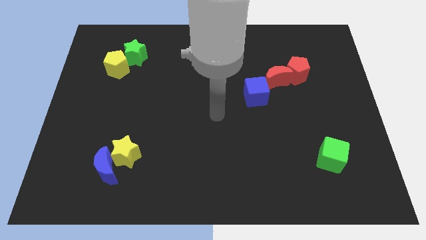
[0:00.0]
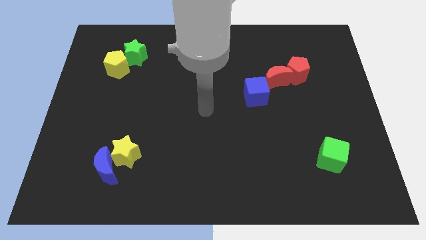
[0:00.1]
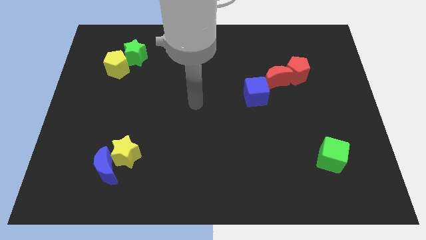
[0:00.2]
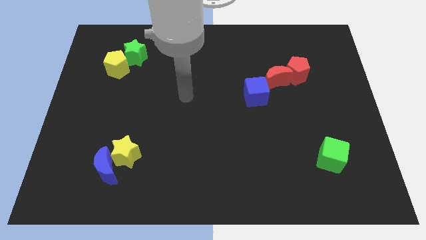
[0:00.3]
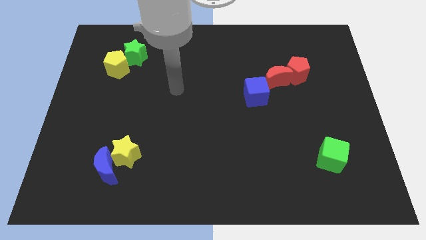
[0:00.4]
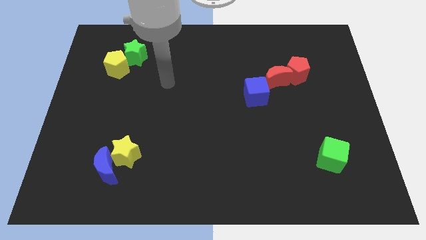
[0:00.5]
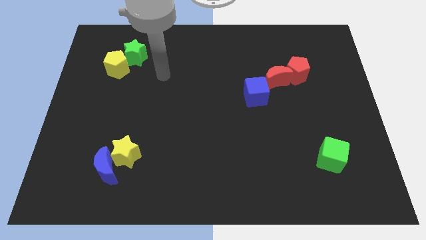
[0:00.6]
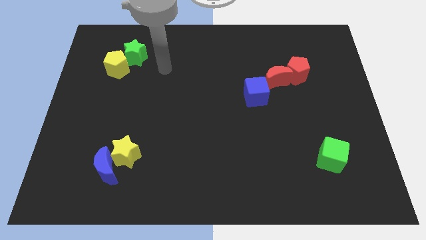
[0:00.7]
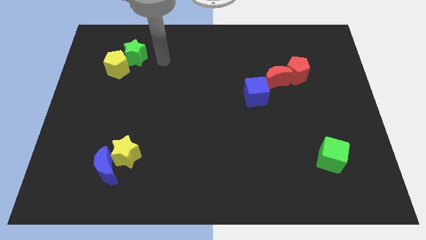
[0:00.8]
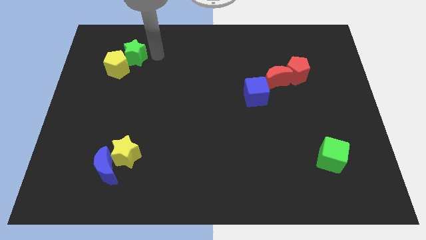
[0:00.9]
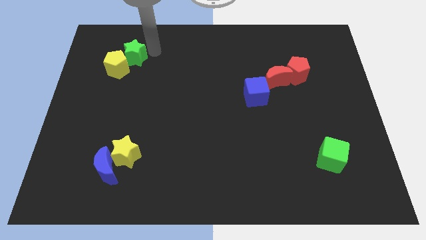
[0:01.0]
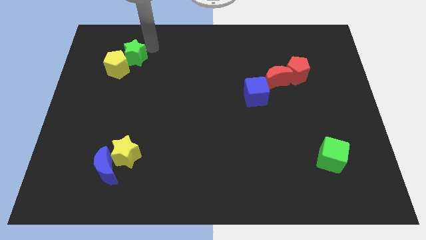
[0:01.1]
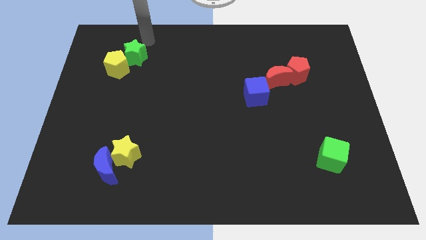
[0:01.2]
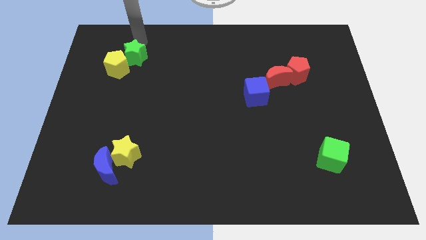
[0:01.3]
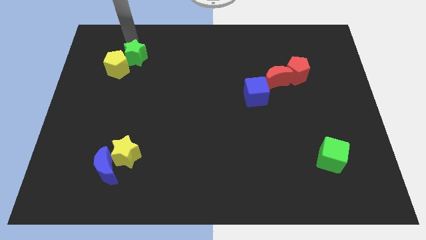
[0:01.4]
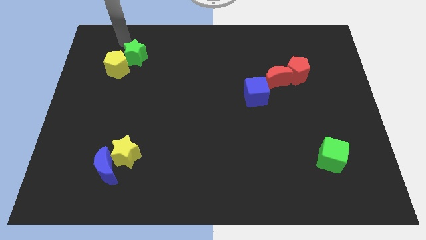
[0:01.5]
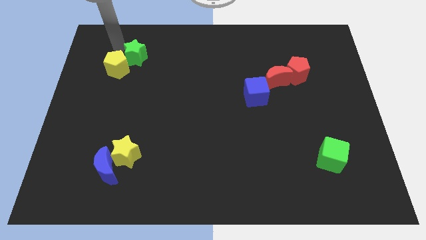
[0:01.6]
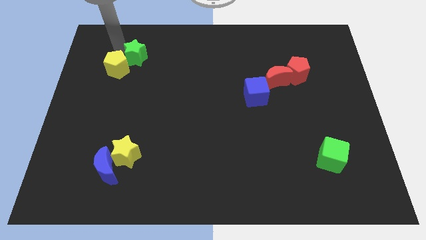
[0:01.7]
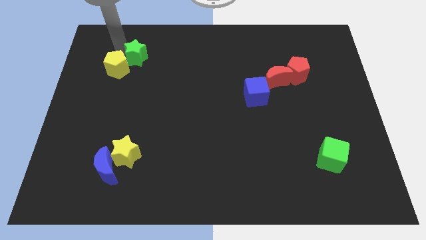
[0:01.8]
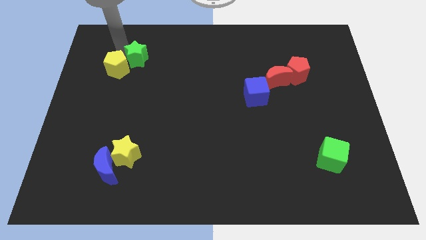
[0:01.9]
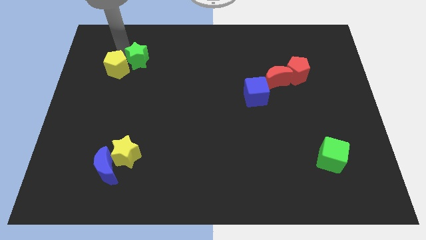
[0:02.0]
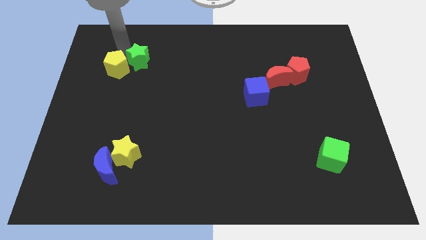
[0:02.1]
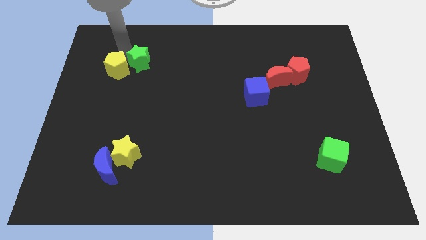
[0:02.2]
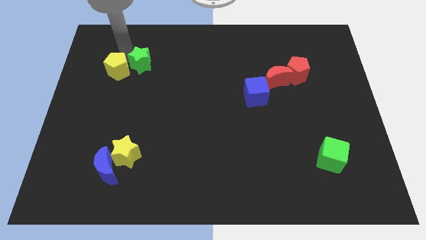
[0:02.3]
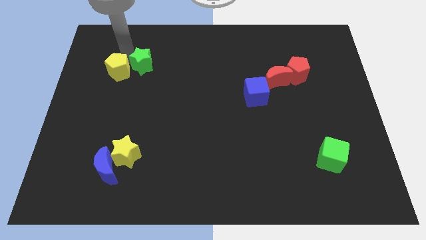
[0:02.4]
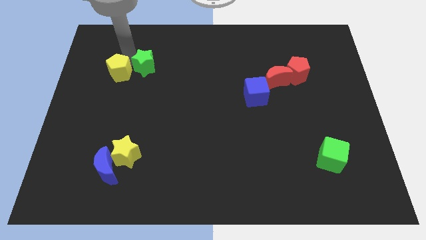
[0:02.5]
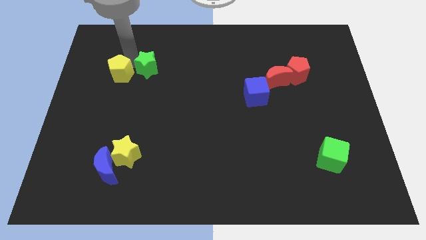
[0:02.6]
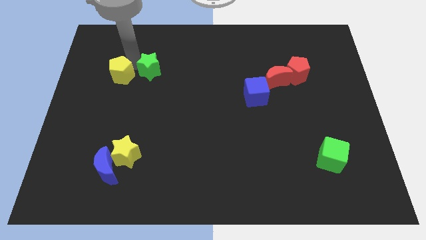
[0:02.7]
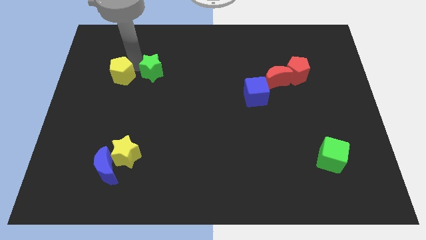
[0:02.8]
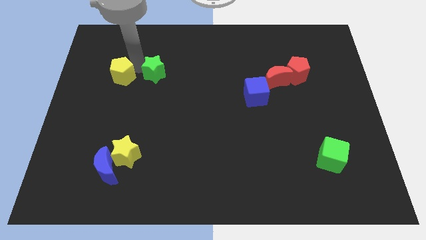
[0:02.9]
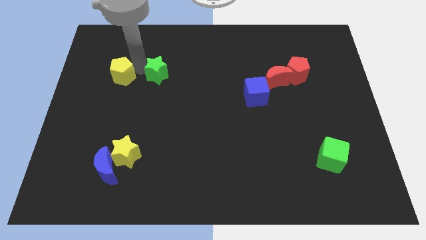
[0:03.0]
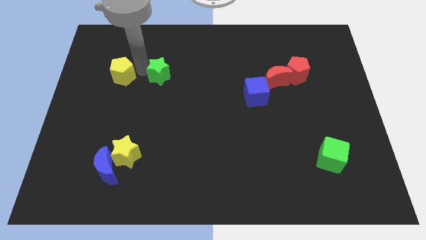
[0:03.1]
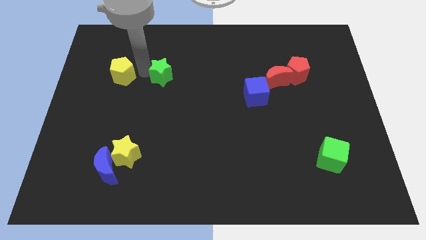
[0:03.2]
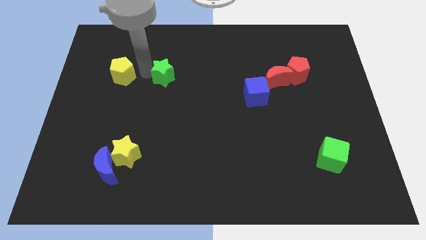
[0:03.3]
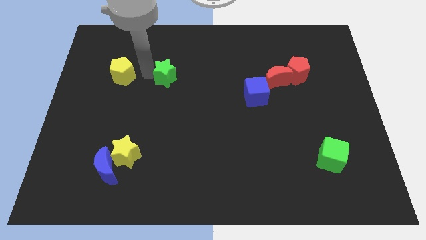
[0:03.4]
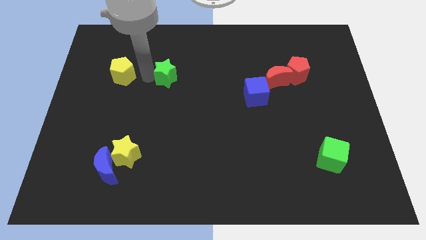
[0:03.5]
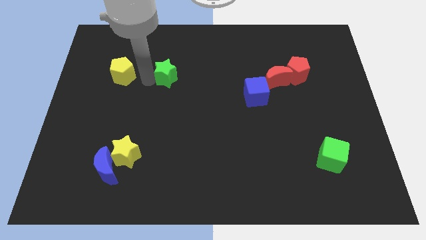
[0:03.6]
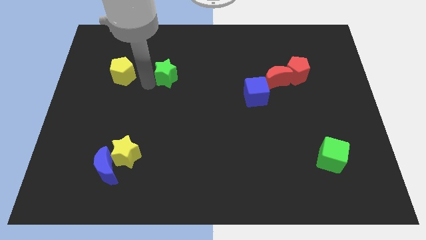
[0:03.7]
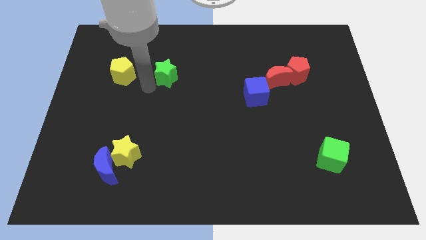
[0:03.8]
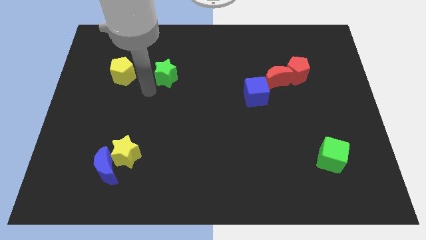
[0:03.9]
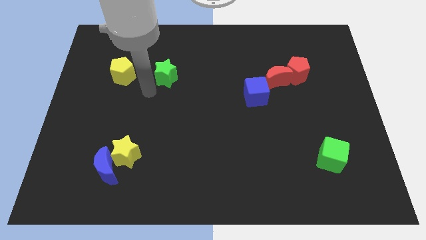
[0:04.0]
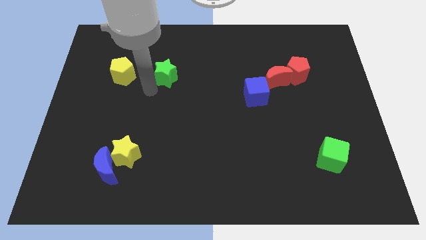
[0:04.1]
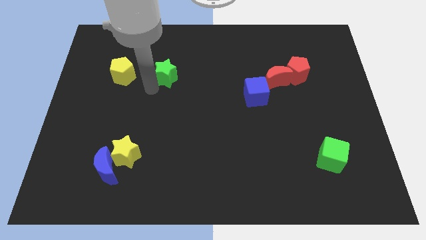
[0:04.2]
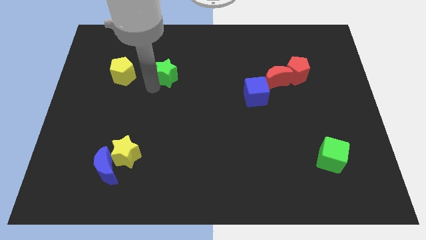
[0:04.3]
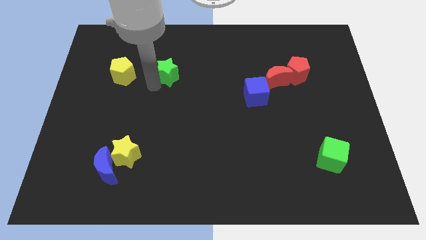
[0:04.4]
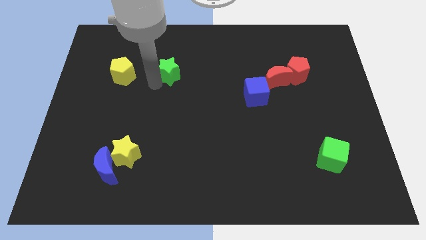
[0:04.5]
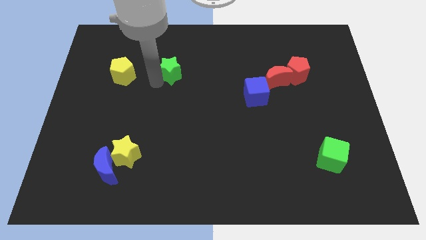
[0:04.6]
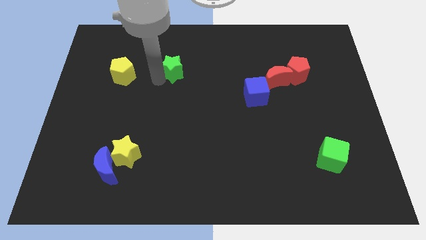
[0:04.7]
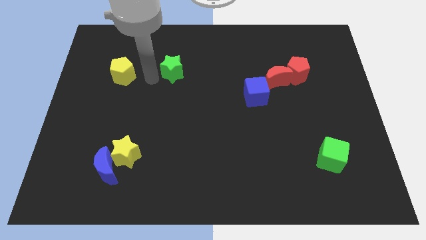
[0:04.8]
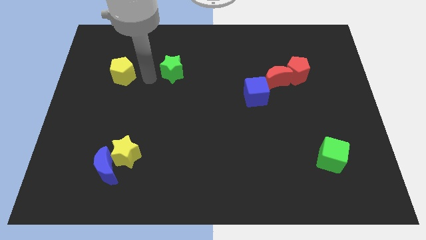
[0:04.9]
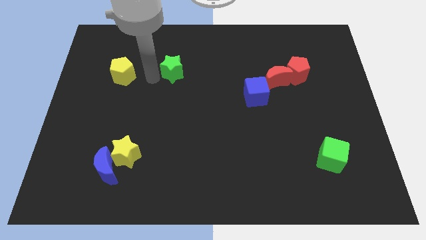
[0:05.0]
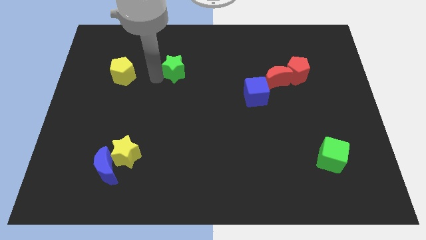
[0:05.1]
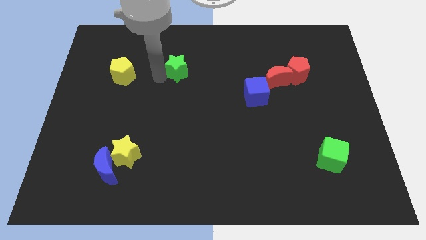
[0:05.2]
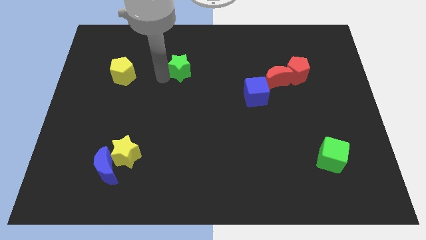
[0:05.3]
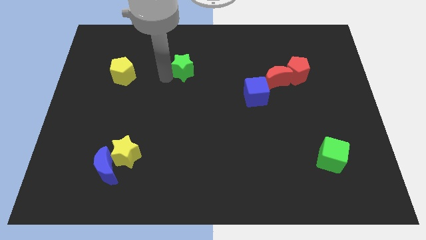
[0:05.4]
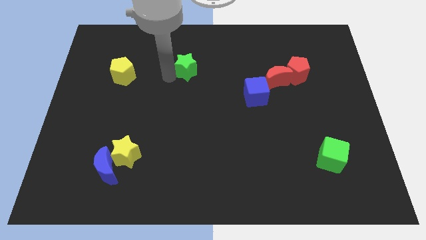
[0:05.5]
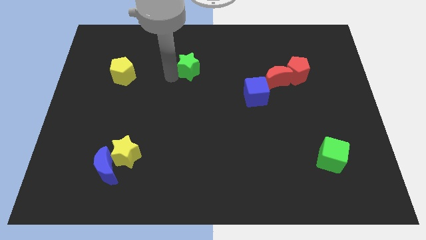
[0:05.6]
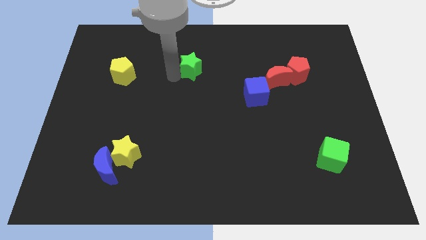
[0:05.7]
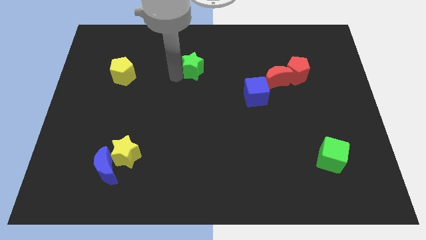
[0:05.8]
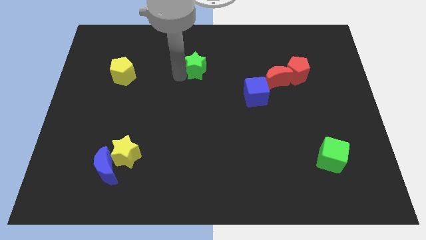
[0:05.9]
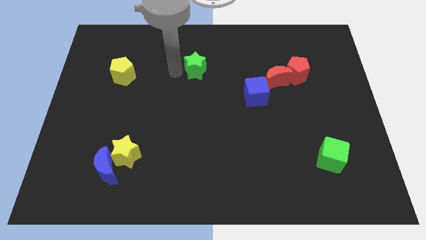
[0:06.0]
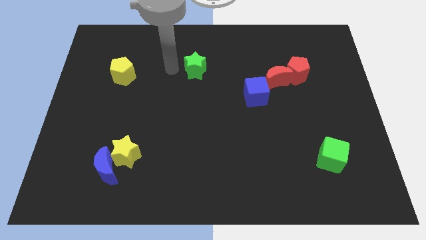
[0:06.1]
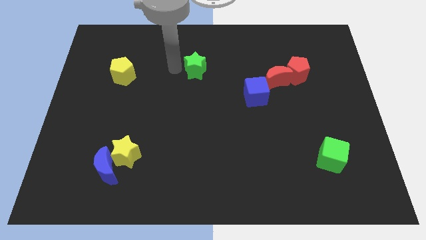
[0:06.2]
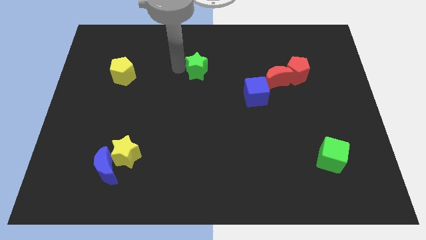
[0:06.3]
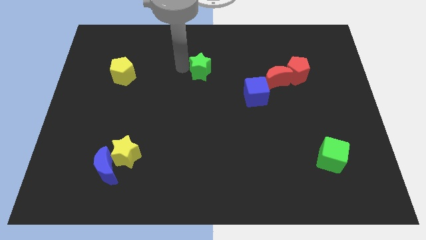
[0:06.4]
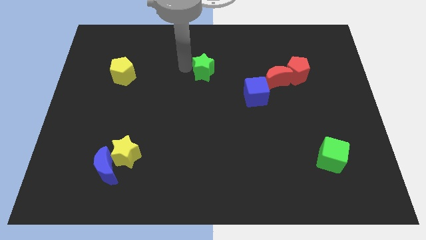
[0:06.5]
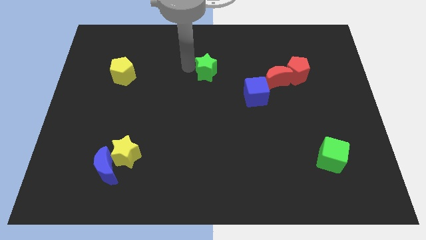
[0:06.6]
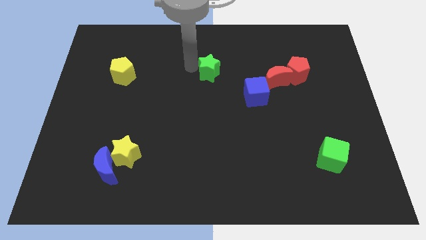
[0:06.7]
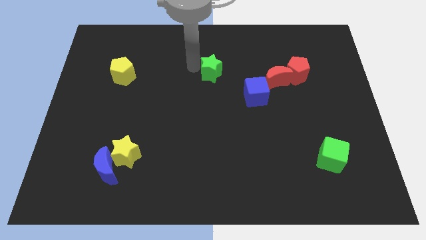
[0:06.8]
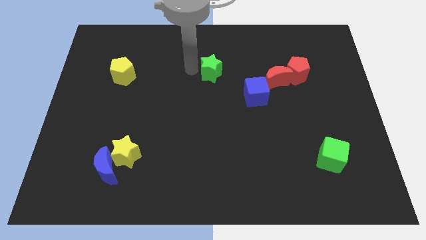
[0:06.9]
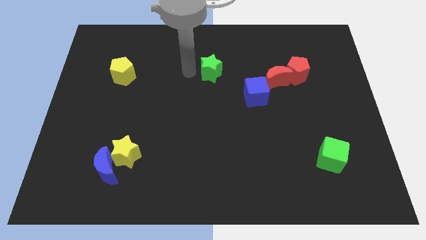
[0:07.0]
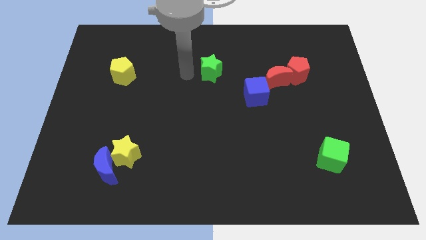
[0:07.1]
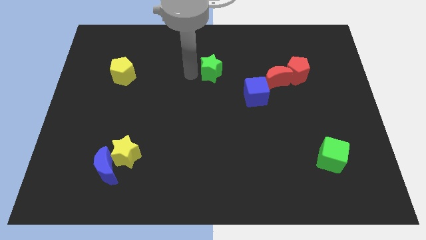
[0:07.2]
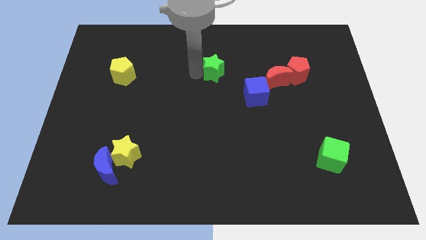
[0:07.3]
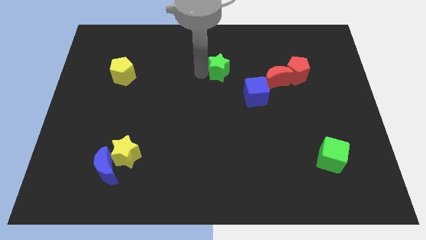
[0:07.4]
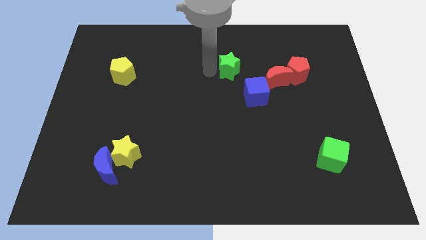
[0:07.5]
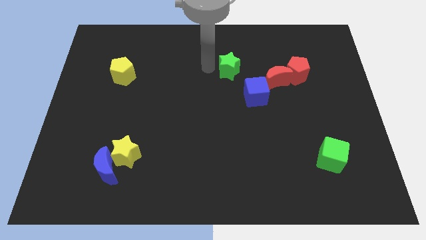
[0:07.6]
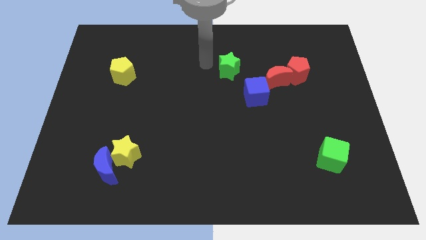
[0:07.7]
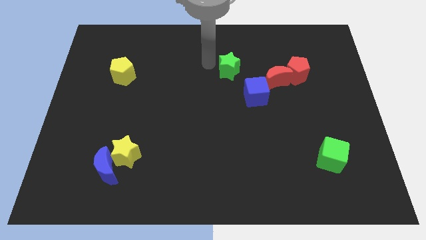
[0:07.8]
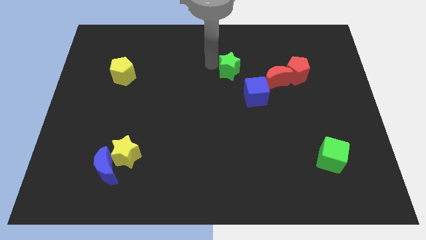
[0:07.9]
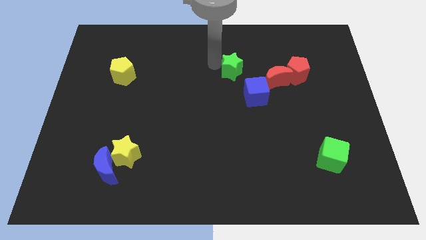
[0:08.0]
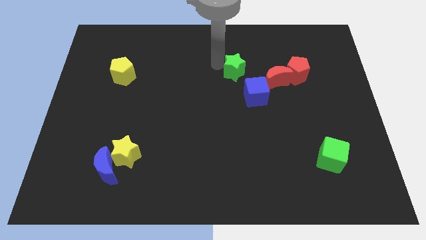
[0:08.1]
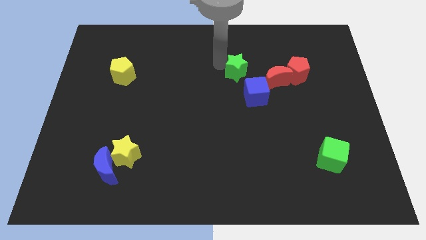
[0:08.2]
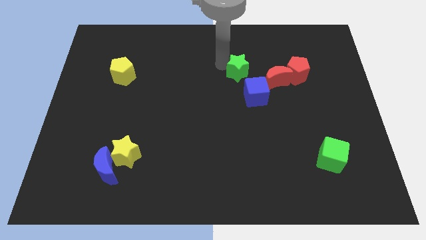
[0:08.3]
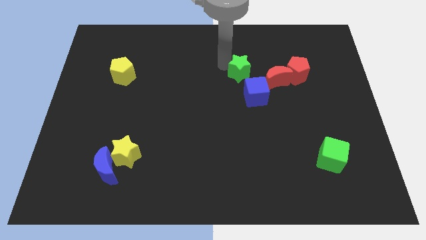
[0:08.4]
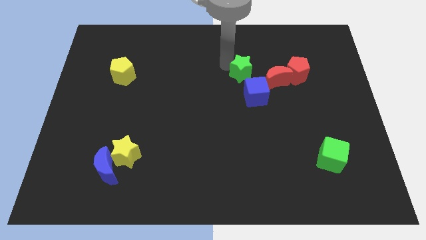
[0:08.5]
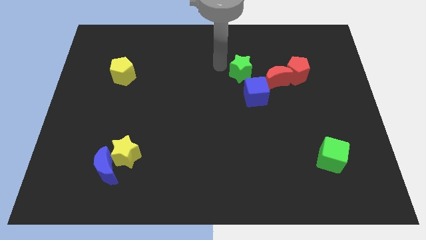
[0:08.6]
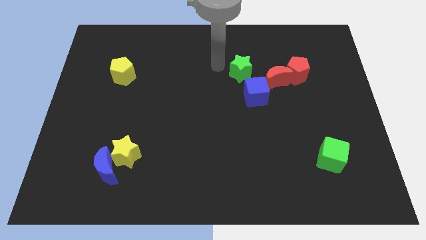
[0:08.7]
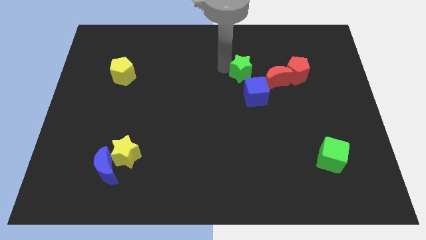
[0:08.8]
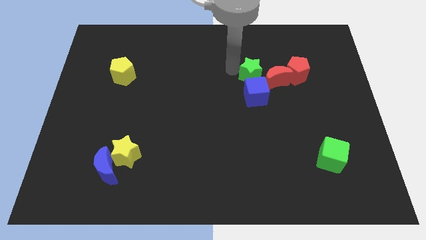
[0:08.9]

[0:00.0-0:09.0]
push the green star next to the red moon
